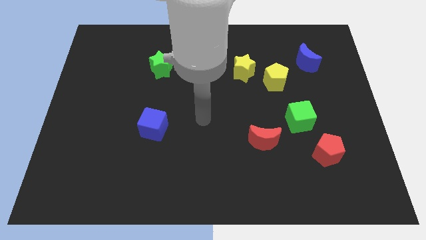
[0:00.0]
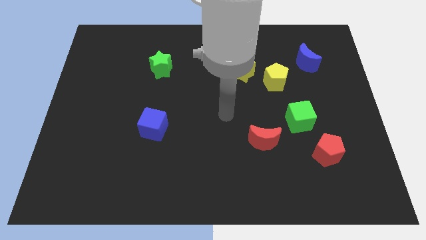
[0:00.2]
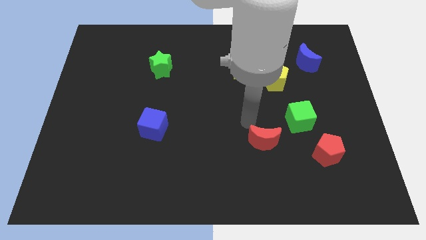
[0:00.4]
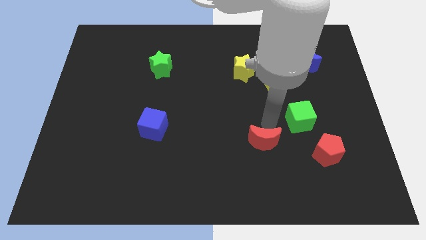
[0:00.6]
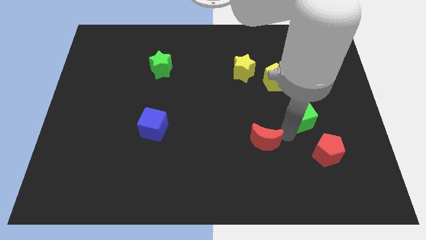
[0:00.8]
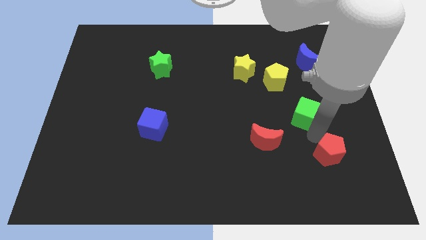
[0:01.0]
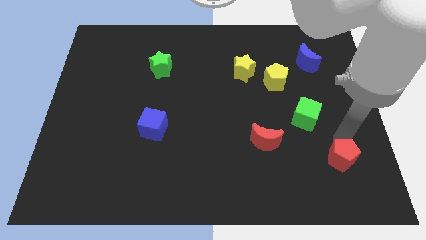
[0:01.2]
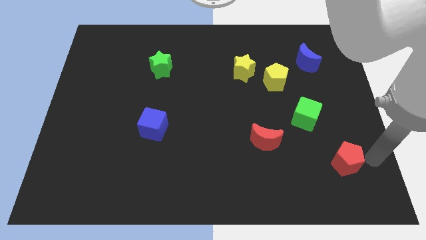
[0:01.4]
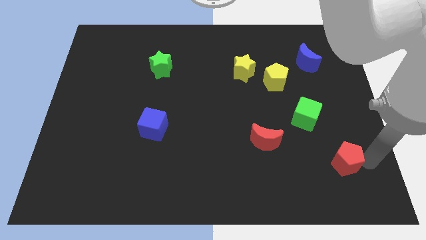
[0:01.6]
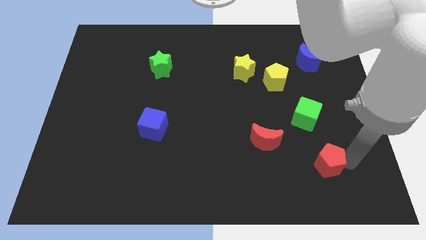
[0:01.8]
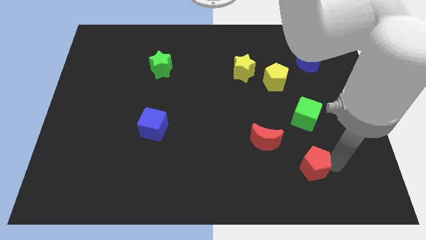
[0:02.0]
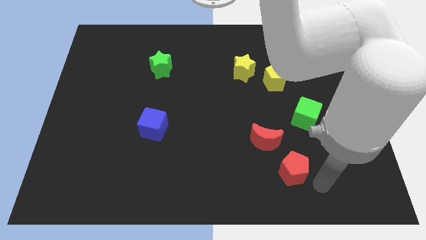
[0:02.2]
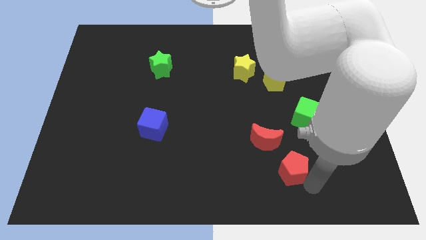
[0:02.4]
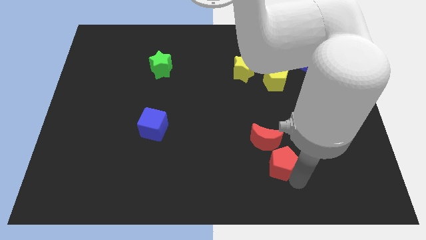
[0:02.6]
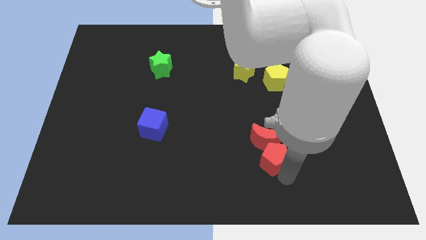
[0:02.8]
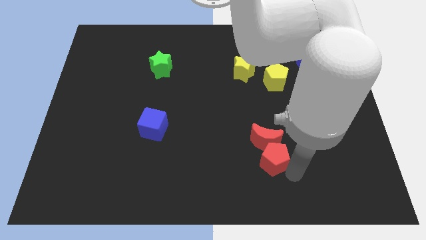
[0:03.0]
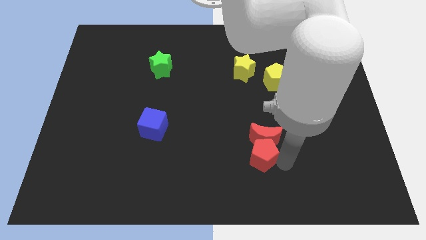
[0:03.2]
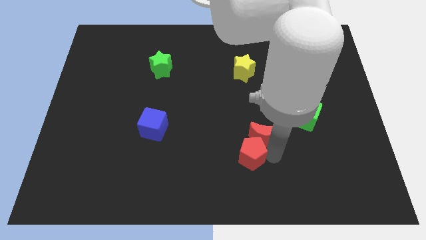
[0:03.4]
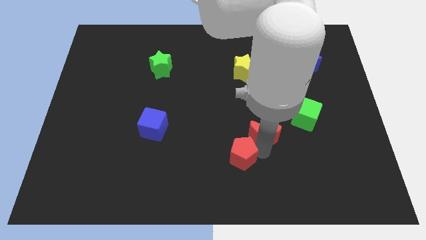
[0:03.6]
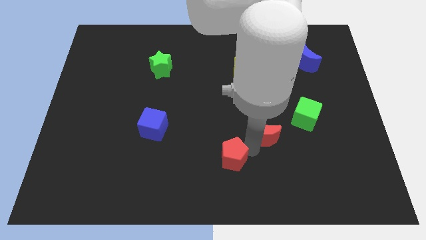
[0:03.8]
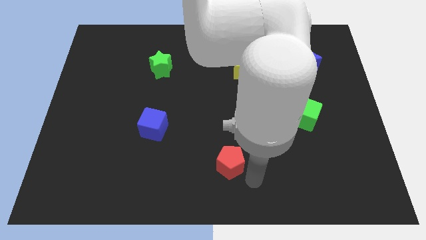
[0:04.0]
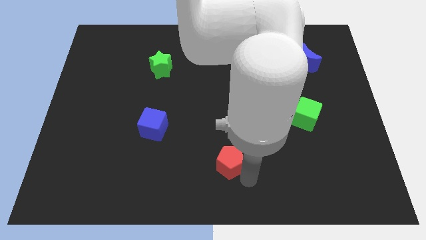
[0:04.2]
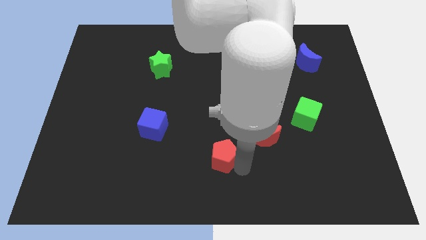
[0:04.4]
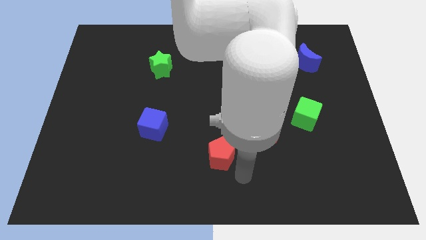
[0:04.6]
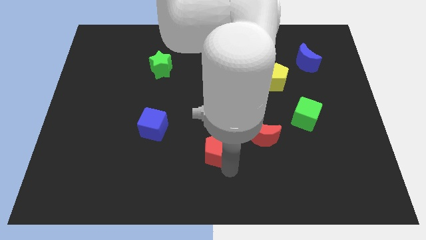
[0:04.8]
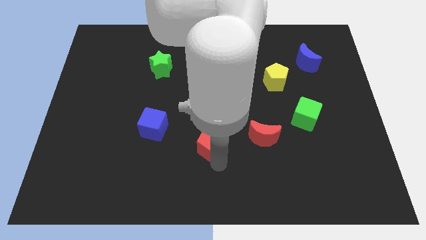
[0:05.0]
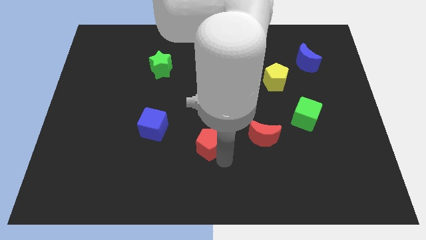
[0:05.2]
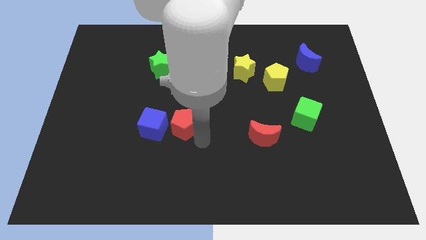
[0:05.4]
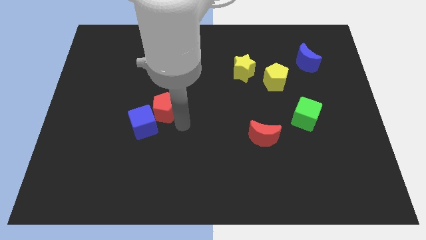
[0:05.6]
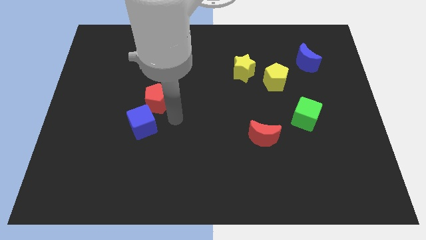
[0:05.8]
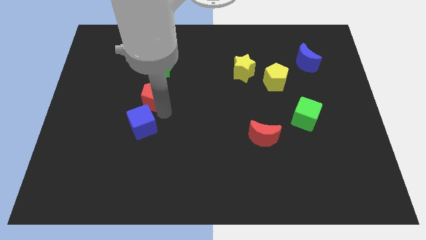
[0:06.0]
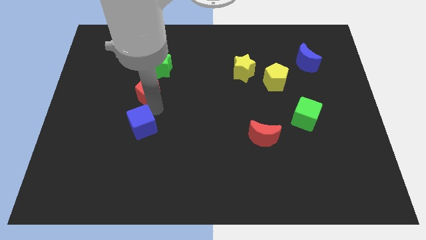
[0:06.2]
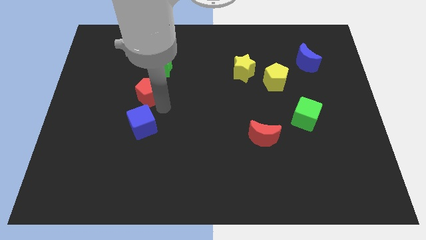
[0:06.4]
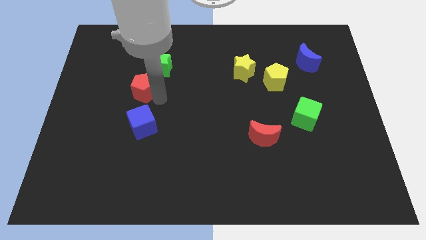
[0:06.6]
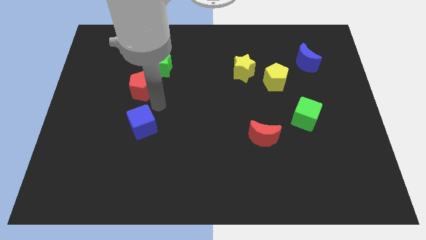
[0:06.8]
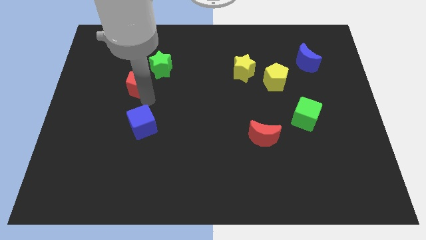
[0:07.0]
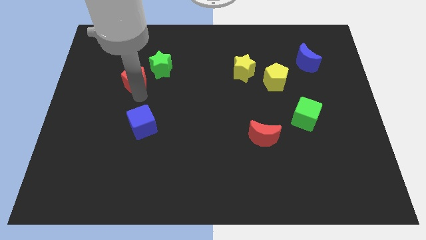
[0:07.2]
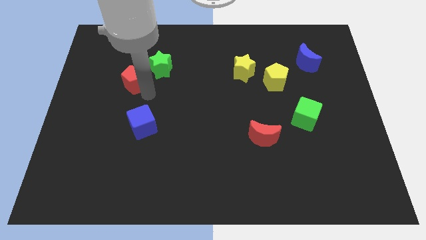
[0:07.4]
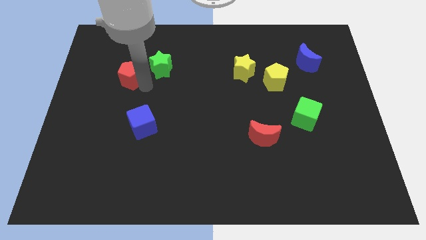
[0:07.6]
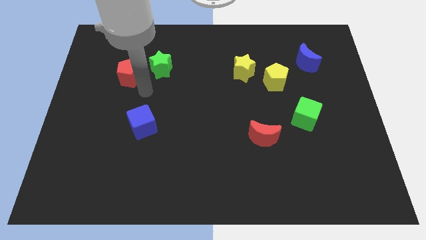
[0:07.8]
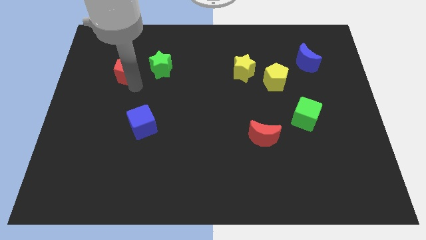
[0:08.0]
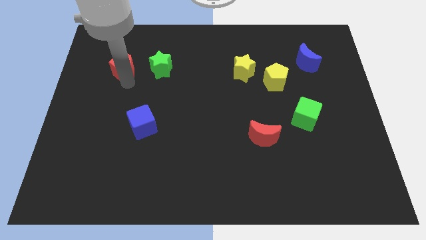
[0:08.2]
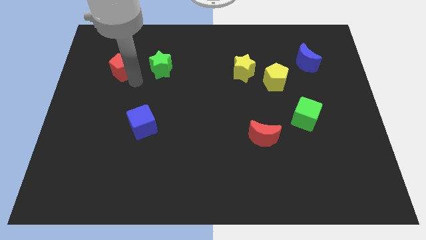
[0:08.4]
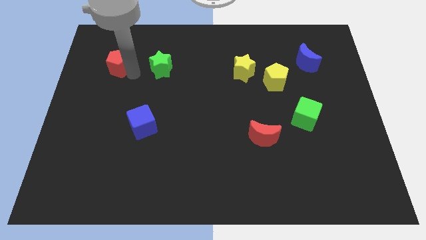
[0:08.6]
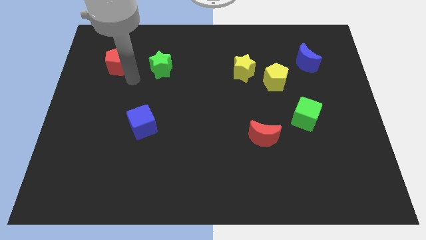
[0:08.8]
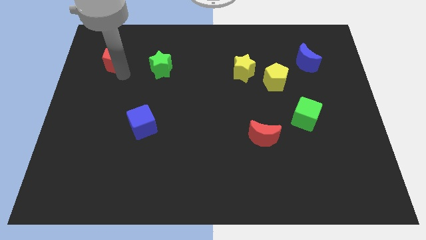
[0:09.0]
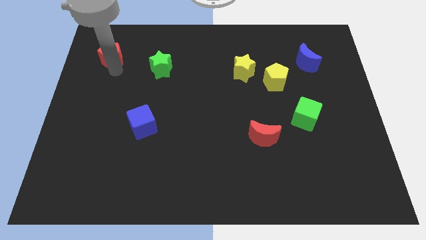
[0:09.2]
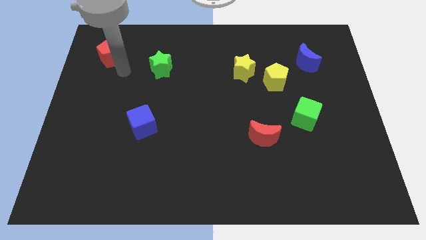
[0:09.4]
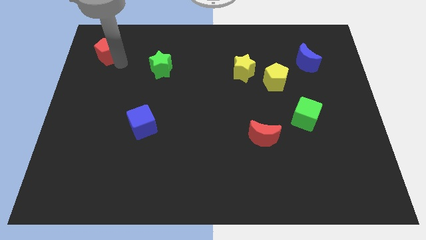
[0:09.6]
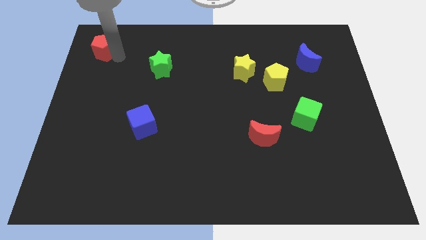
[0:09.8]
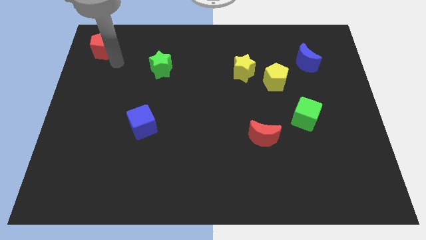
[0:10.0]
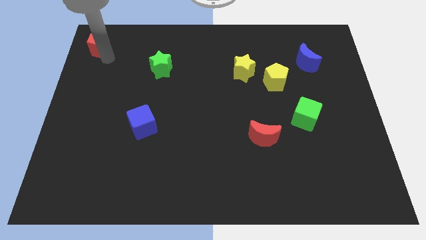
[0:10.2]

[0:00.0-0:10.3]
slide the red pentagon to the upper left corner

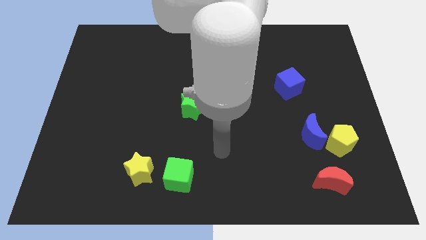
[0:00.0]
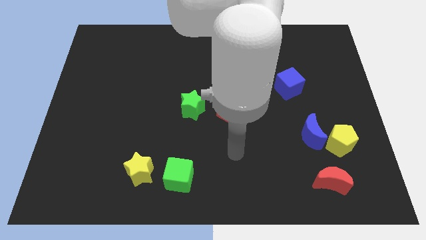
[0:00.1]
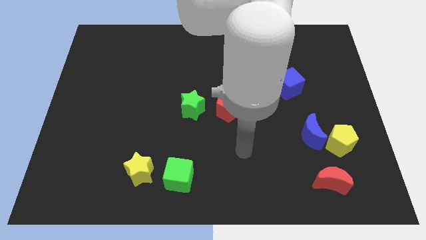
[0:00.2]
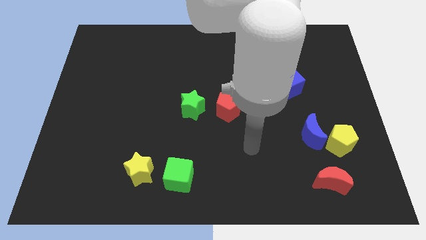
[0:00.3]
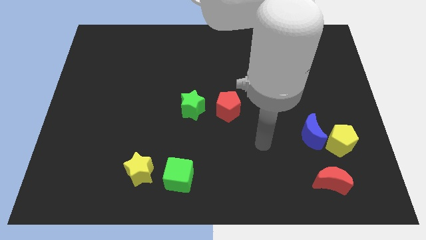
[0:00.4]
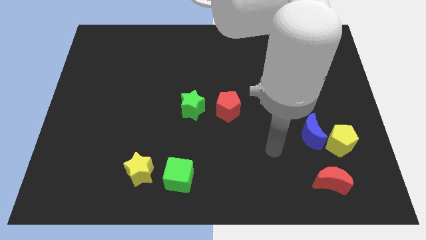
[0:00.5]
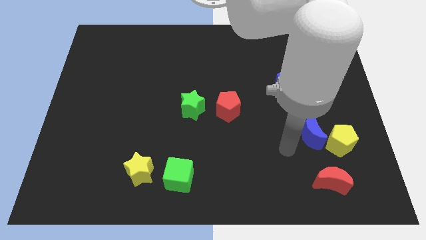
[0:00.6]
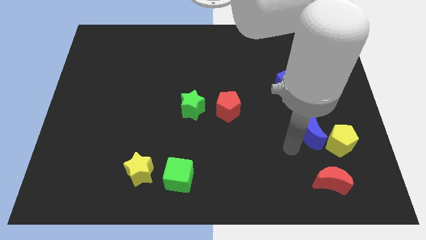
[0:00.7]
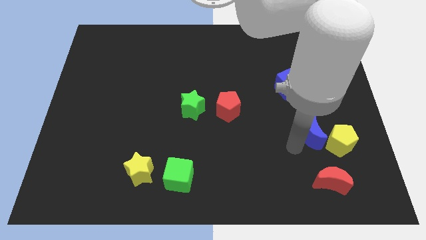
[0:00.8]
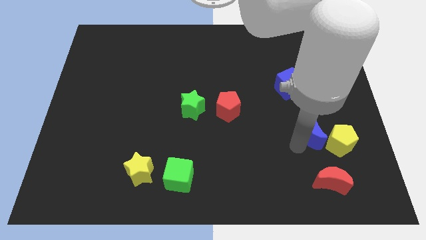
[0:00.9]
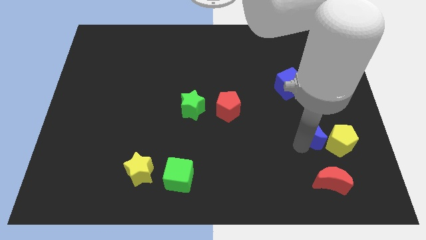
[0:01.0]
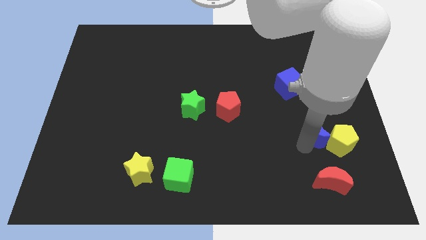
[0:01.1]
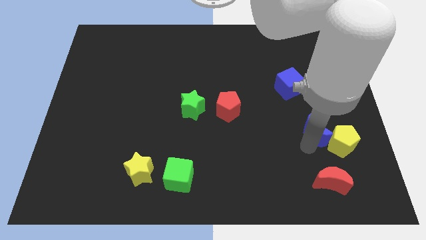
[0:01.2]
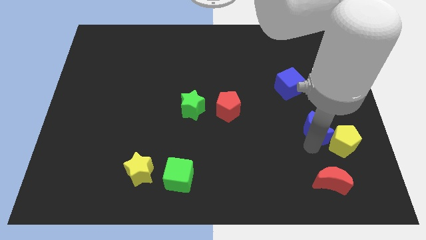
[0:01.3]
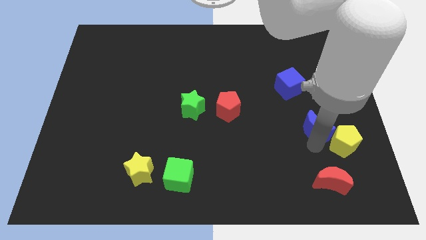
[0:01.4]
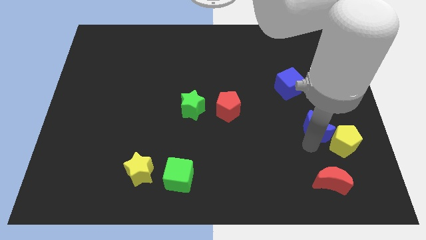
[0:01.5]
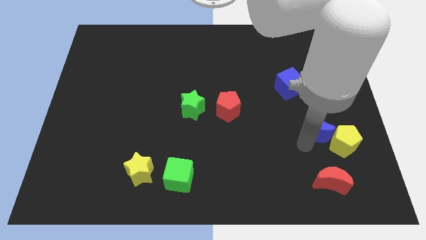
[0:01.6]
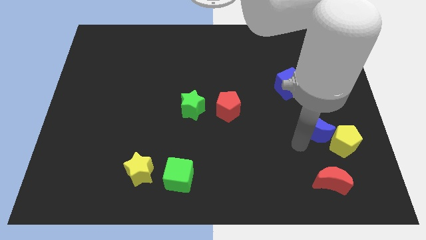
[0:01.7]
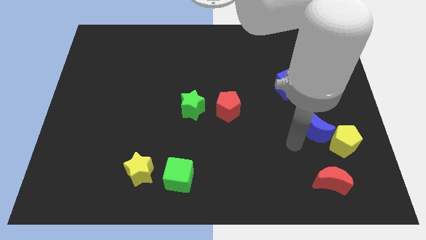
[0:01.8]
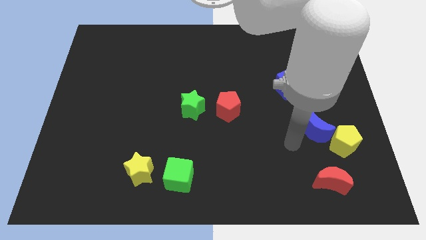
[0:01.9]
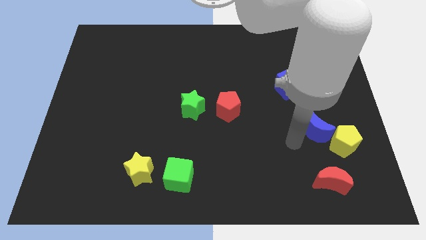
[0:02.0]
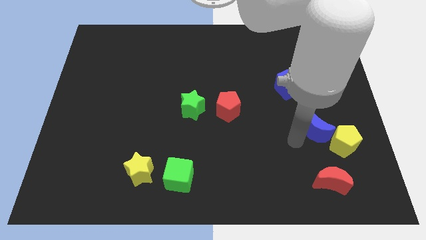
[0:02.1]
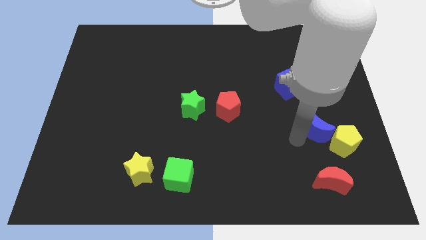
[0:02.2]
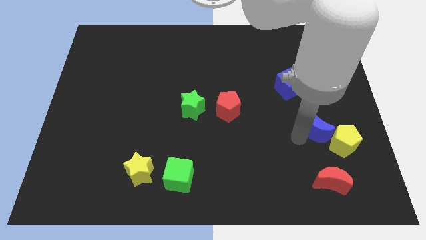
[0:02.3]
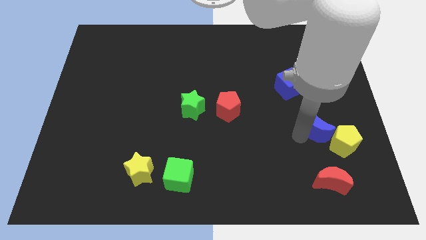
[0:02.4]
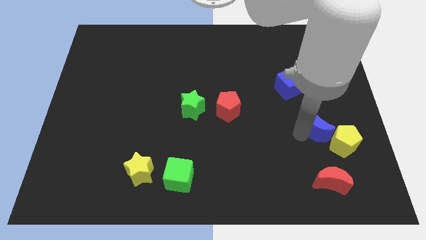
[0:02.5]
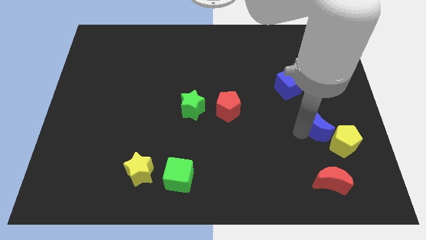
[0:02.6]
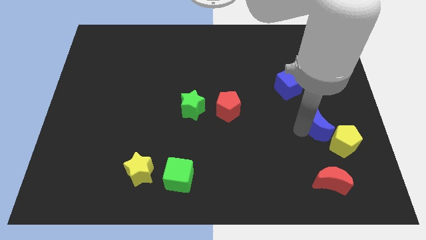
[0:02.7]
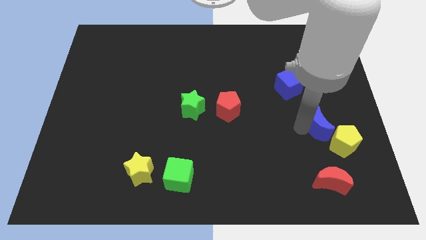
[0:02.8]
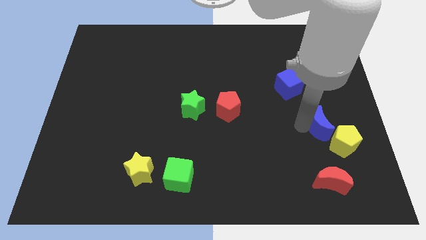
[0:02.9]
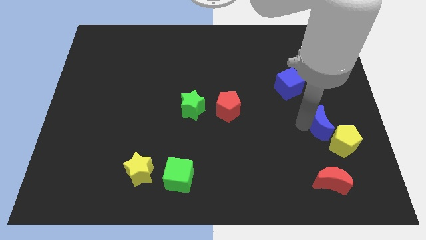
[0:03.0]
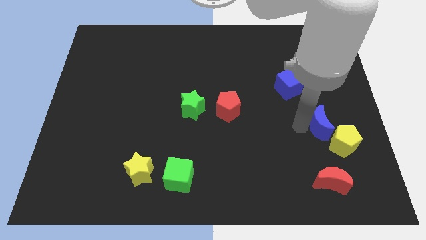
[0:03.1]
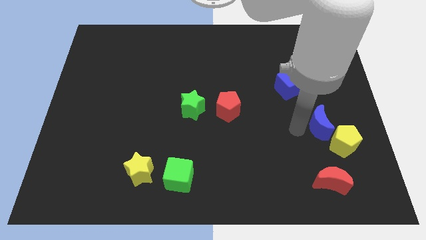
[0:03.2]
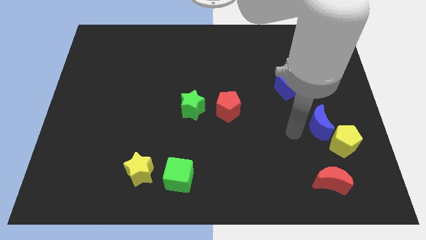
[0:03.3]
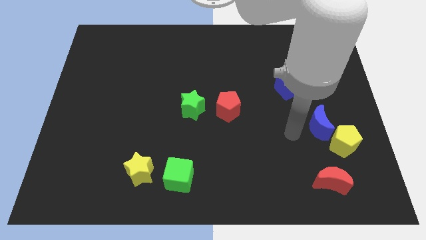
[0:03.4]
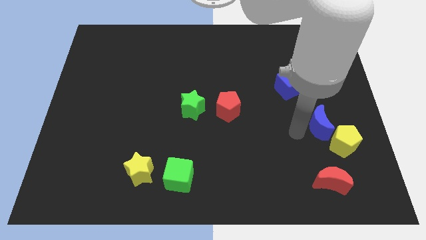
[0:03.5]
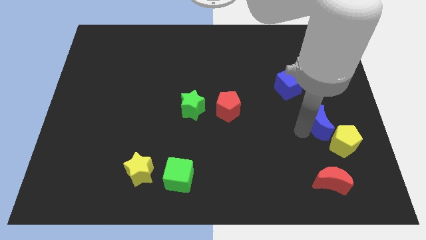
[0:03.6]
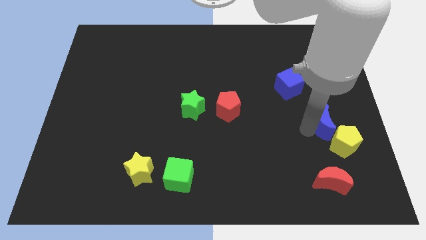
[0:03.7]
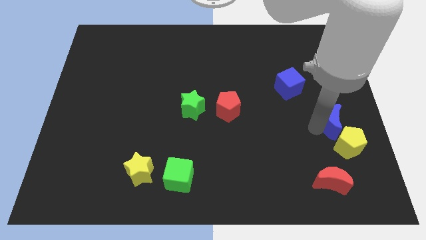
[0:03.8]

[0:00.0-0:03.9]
move the blue moon to the center right
